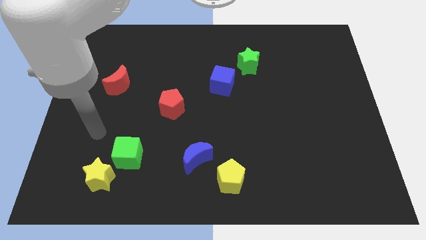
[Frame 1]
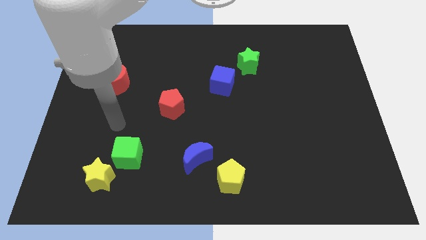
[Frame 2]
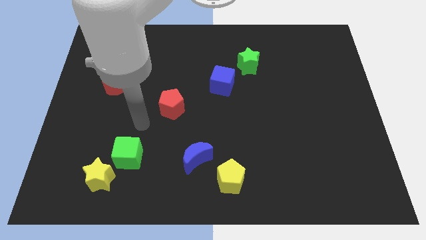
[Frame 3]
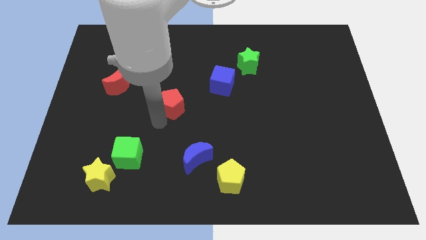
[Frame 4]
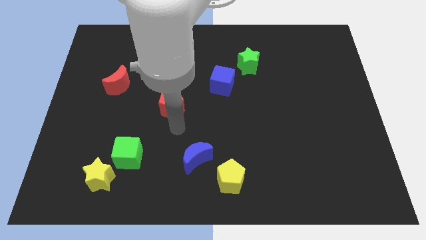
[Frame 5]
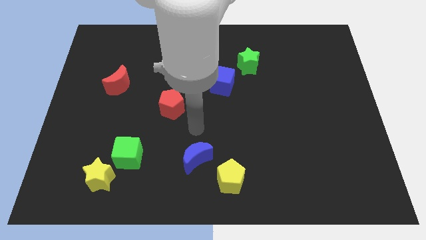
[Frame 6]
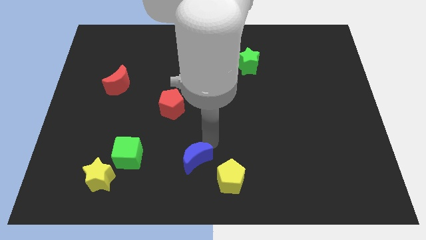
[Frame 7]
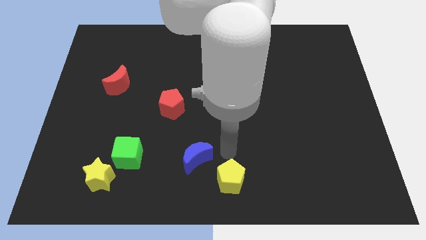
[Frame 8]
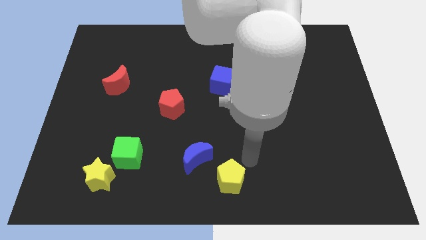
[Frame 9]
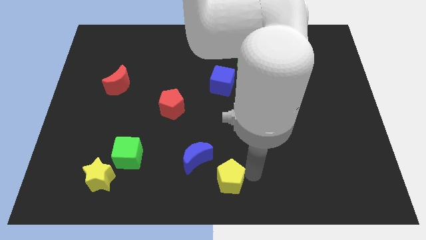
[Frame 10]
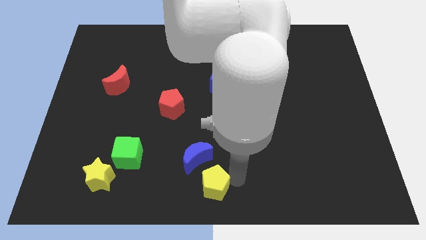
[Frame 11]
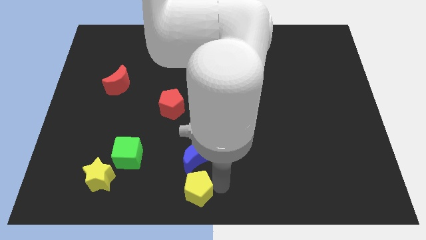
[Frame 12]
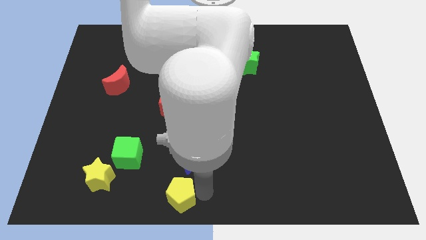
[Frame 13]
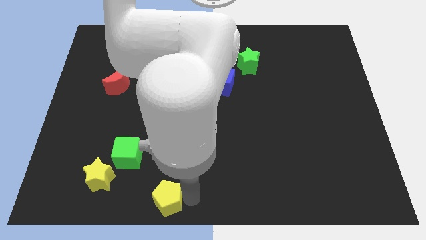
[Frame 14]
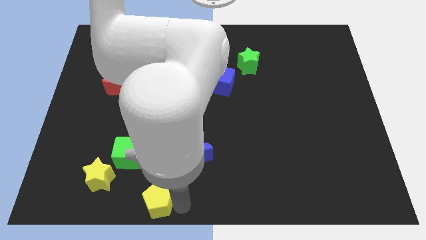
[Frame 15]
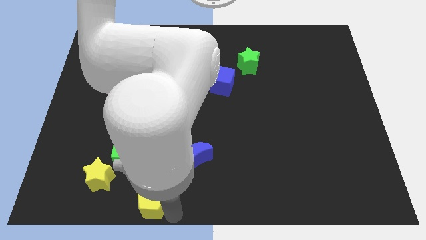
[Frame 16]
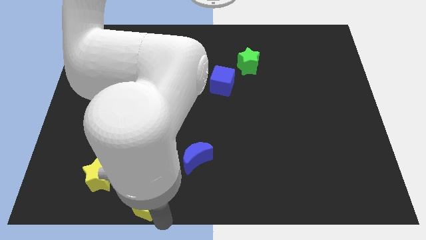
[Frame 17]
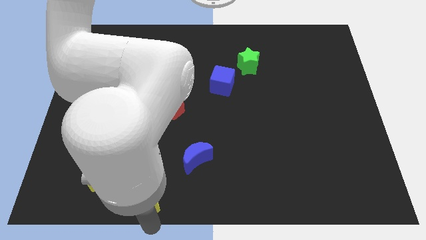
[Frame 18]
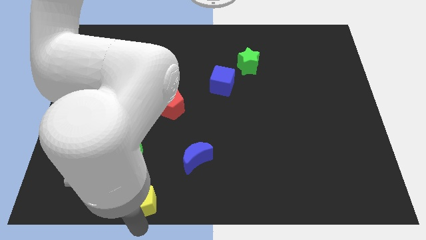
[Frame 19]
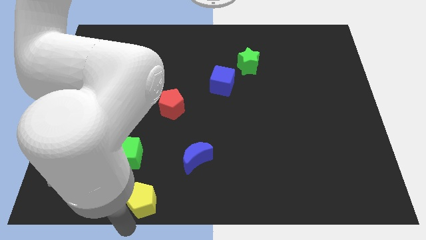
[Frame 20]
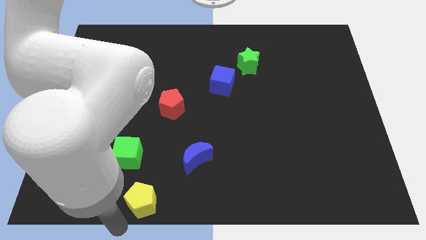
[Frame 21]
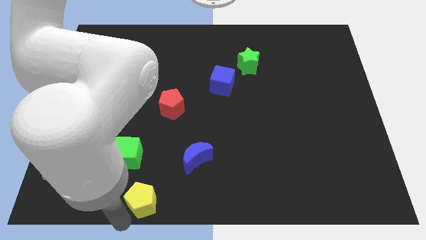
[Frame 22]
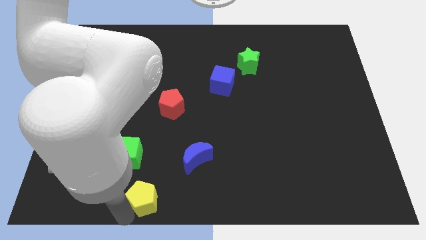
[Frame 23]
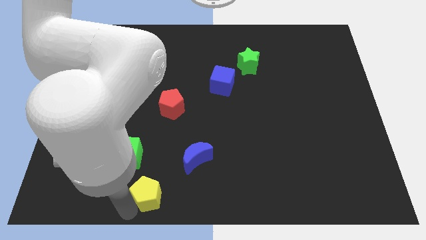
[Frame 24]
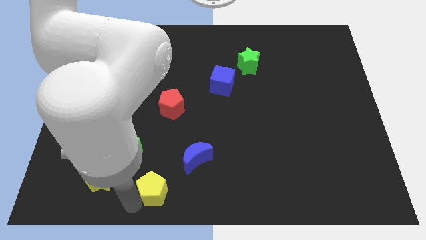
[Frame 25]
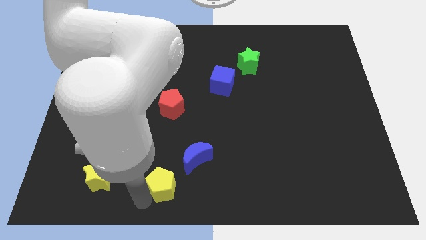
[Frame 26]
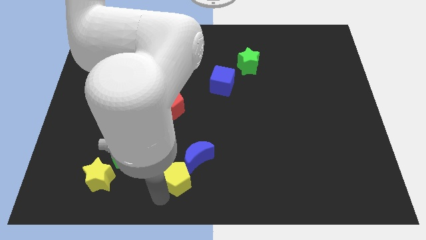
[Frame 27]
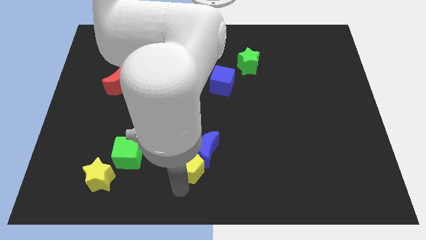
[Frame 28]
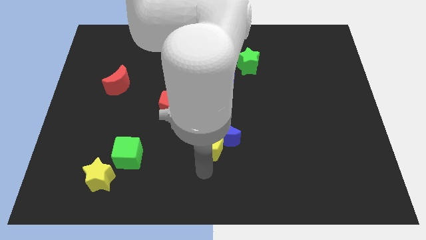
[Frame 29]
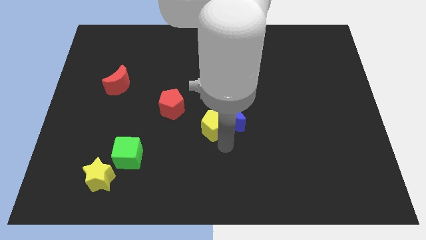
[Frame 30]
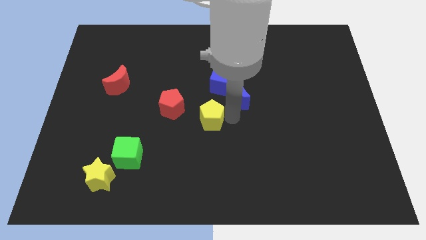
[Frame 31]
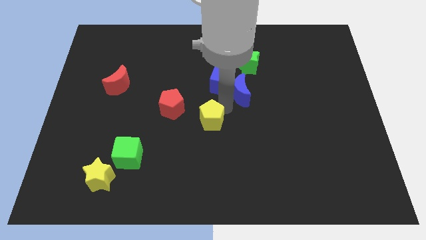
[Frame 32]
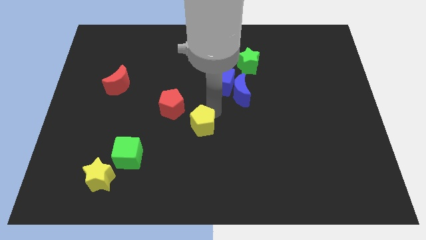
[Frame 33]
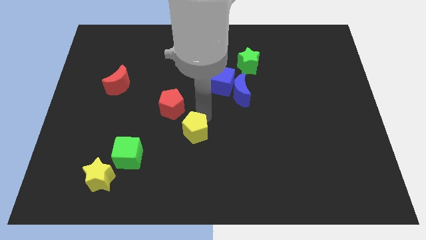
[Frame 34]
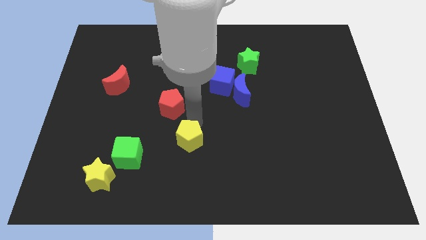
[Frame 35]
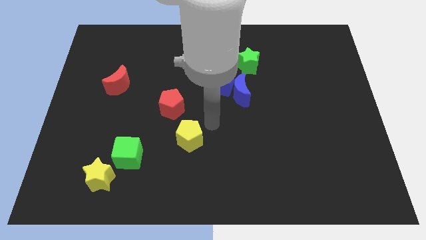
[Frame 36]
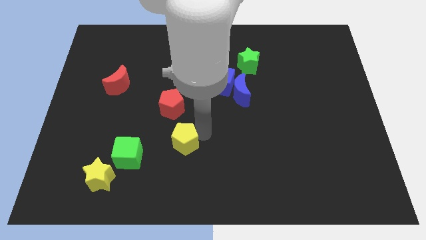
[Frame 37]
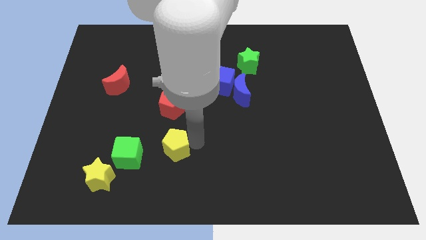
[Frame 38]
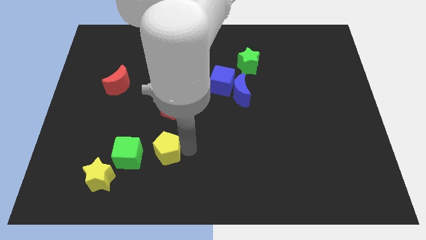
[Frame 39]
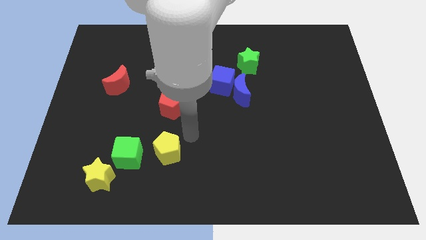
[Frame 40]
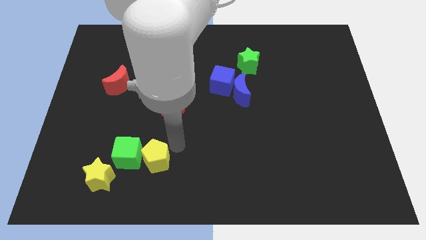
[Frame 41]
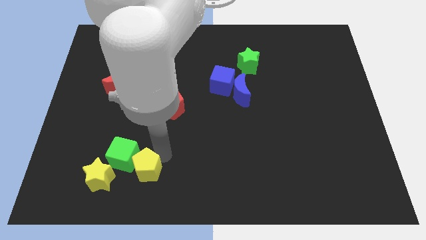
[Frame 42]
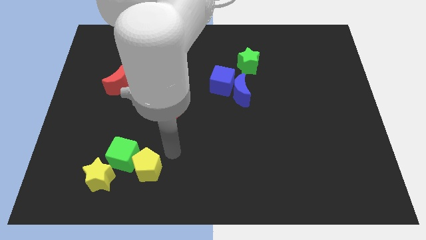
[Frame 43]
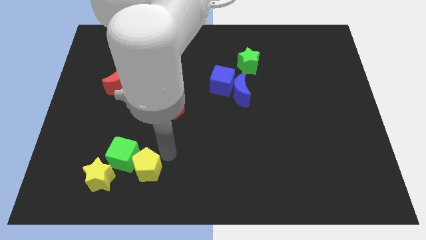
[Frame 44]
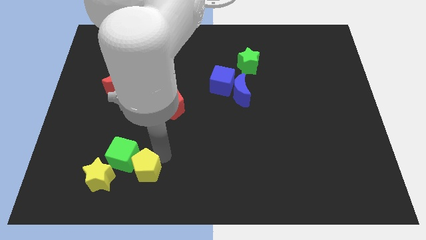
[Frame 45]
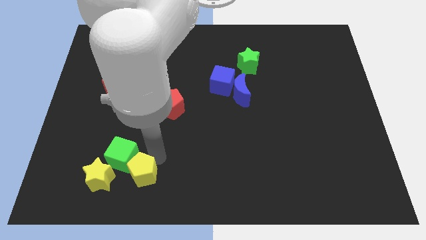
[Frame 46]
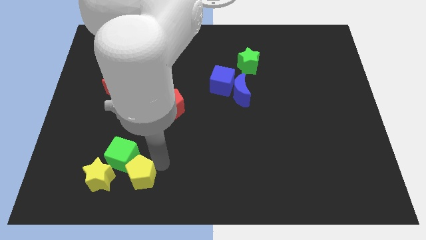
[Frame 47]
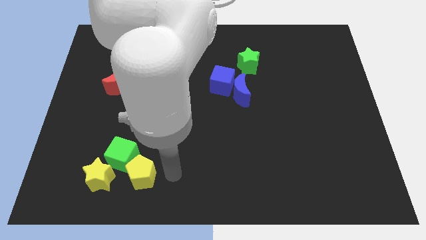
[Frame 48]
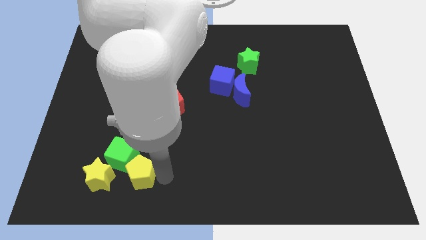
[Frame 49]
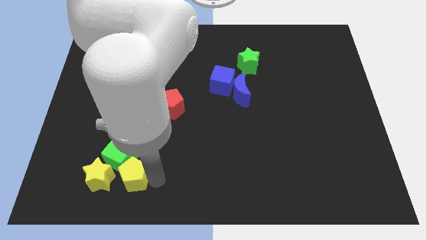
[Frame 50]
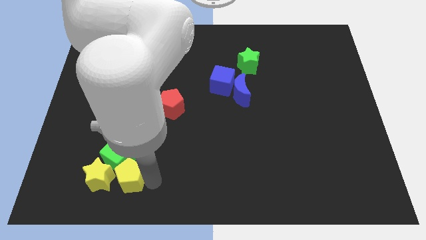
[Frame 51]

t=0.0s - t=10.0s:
slide the yellow pentagon close to the yellow star

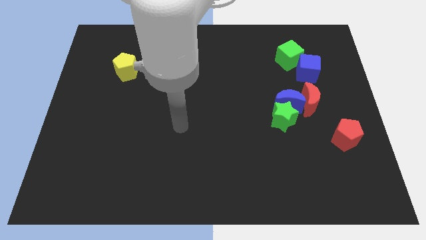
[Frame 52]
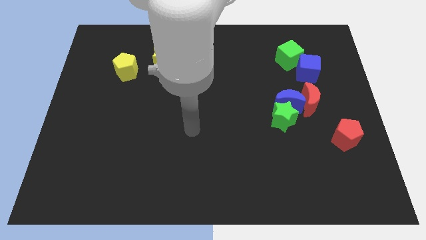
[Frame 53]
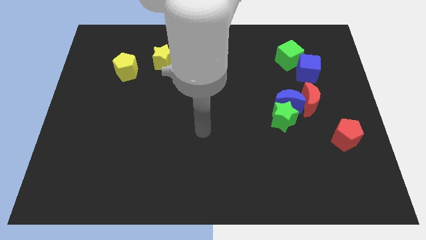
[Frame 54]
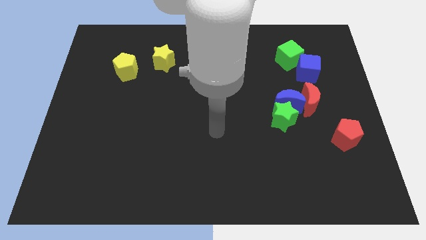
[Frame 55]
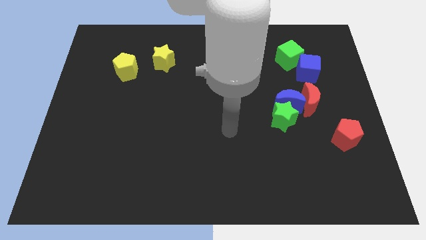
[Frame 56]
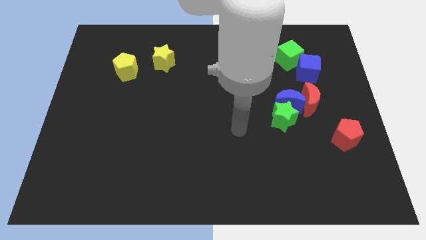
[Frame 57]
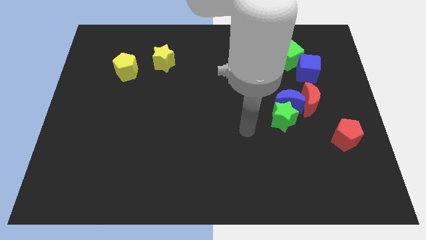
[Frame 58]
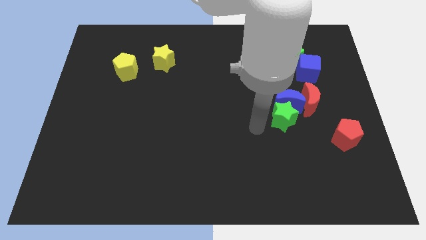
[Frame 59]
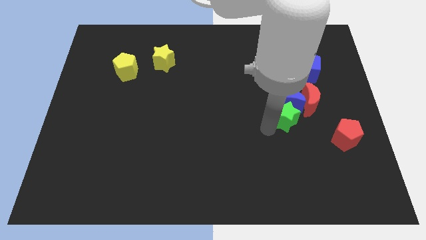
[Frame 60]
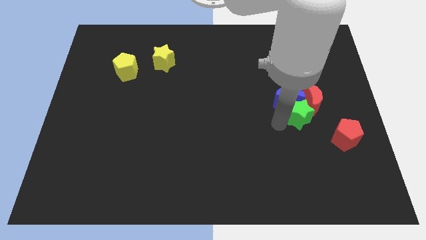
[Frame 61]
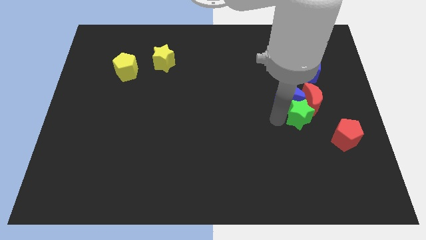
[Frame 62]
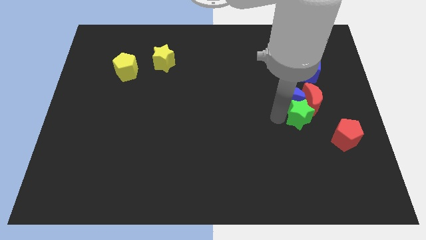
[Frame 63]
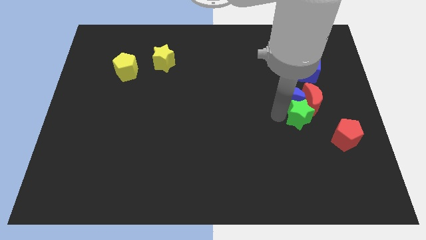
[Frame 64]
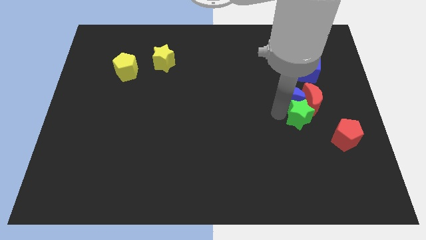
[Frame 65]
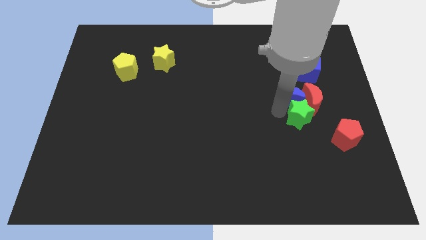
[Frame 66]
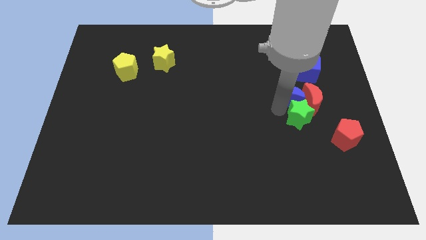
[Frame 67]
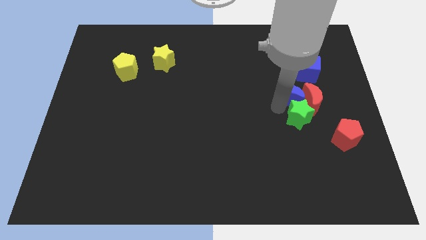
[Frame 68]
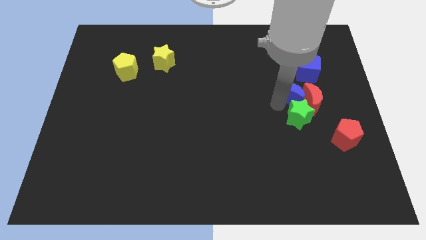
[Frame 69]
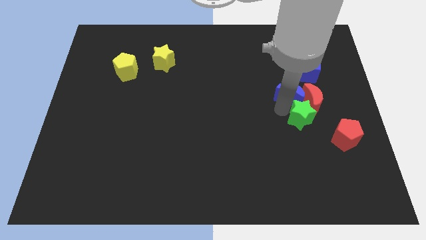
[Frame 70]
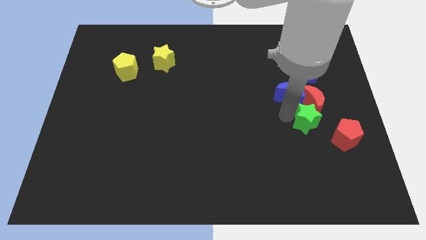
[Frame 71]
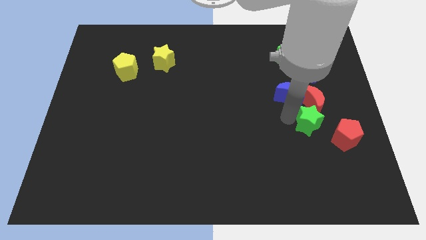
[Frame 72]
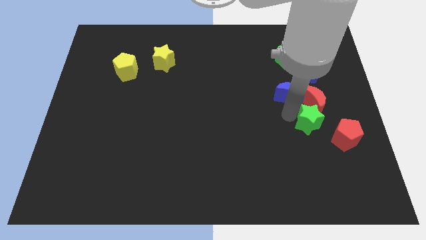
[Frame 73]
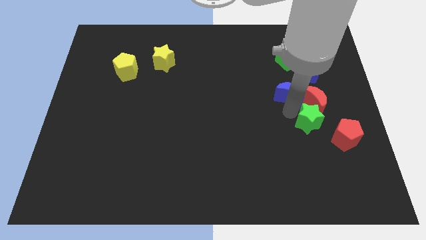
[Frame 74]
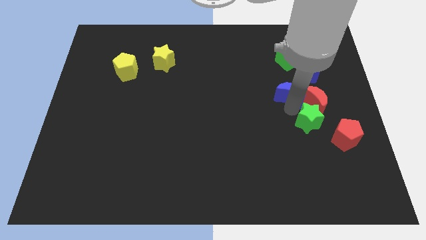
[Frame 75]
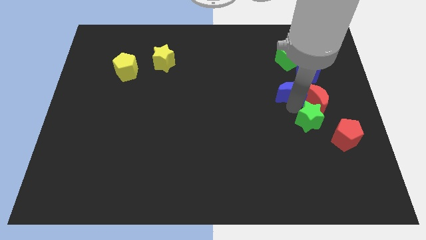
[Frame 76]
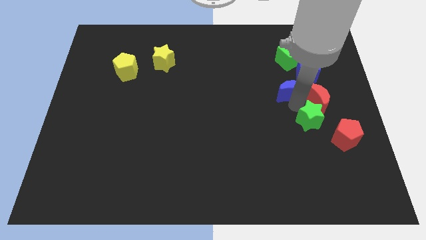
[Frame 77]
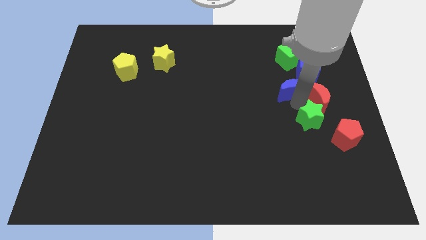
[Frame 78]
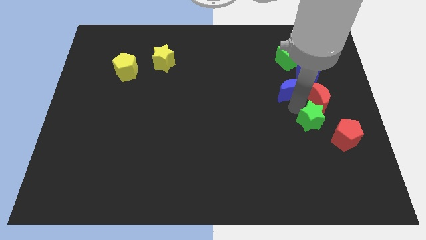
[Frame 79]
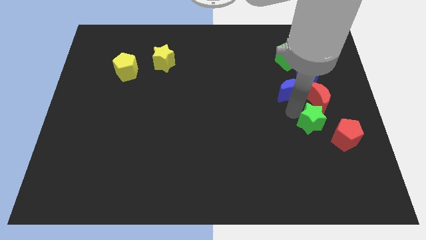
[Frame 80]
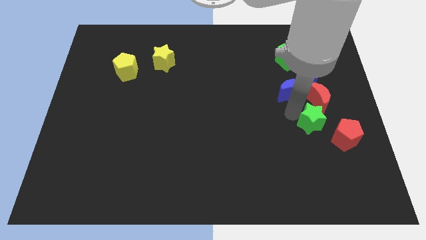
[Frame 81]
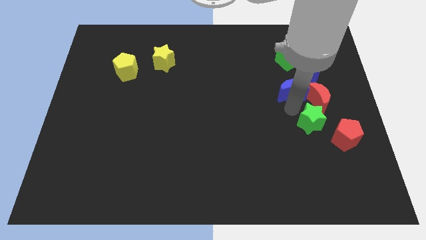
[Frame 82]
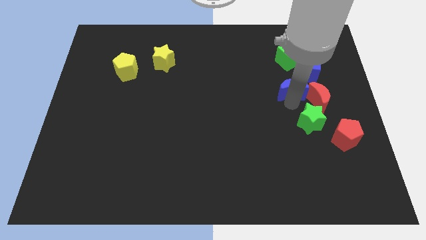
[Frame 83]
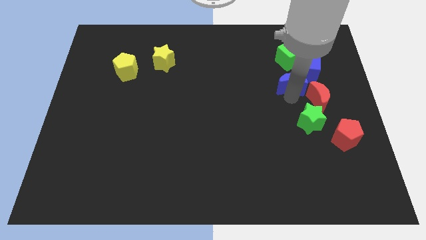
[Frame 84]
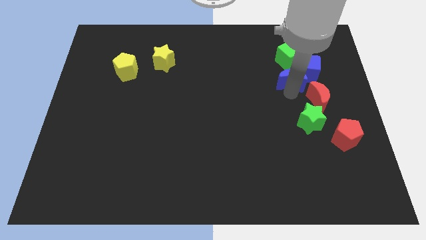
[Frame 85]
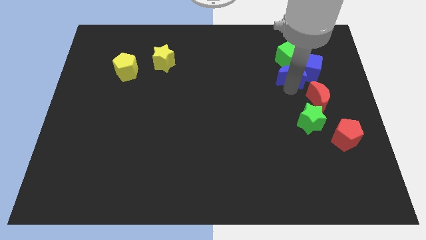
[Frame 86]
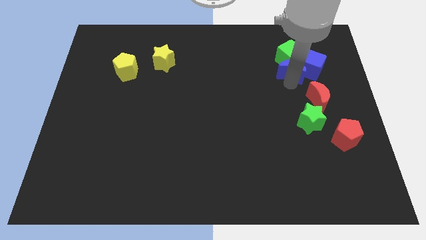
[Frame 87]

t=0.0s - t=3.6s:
slide the blue moon next to the green cube
